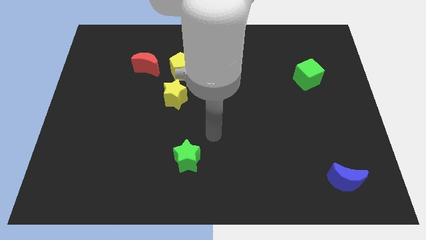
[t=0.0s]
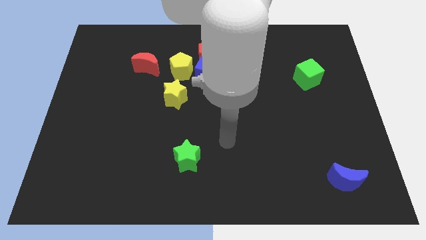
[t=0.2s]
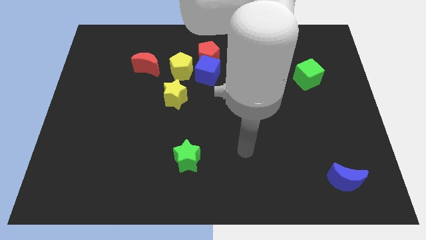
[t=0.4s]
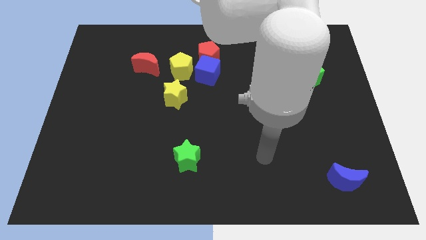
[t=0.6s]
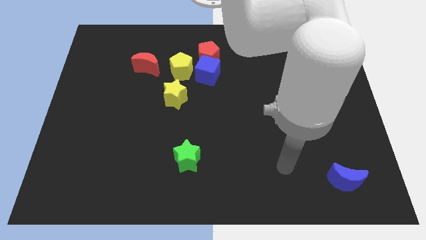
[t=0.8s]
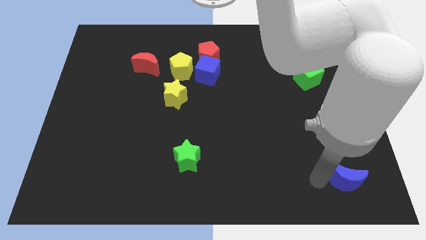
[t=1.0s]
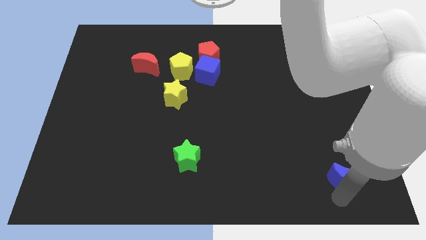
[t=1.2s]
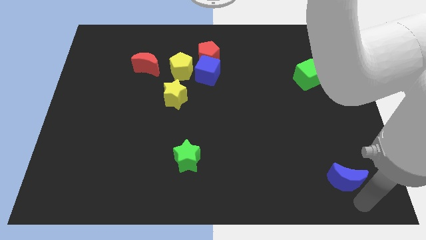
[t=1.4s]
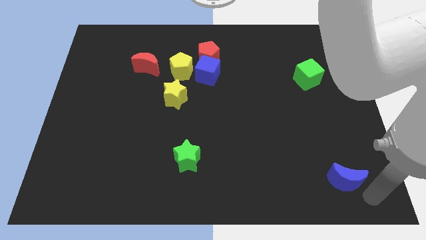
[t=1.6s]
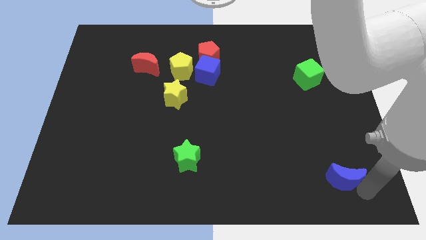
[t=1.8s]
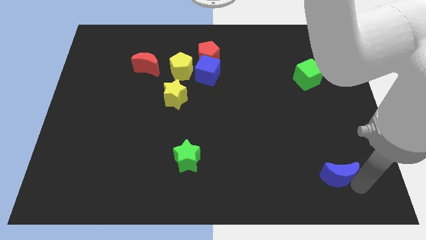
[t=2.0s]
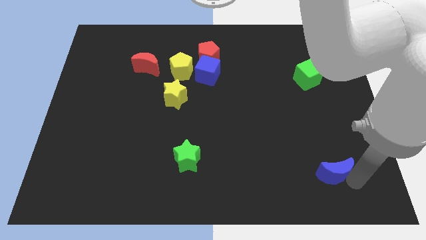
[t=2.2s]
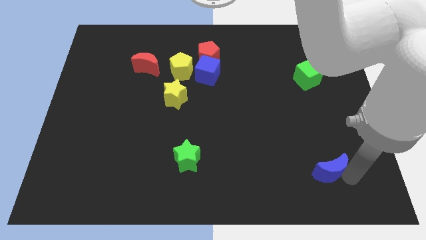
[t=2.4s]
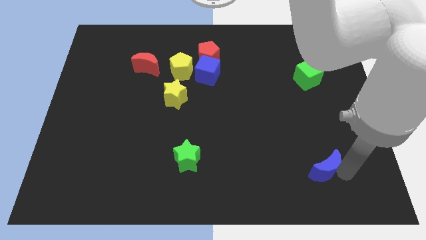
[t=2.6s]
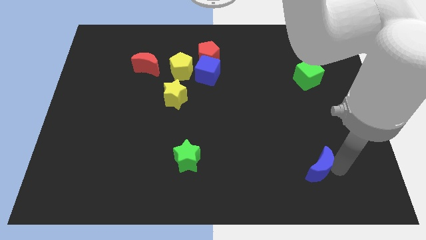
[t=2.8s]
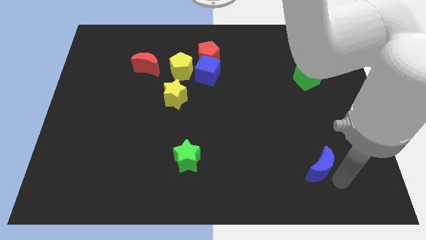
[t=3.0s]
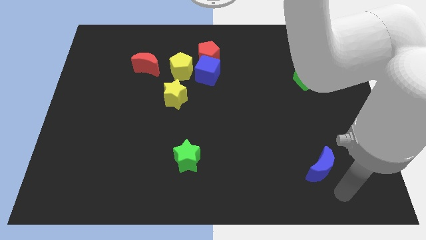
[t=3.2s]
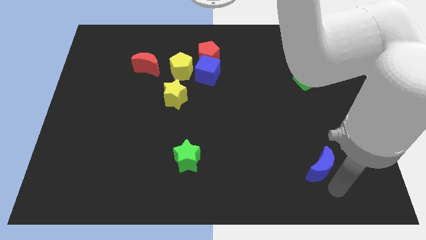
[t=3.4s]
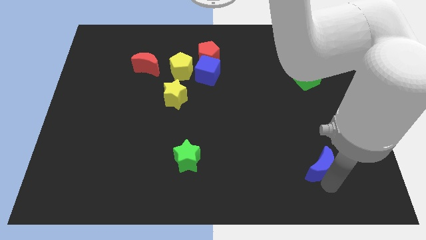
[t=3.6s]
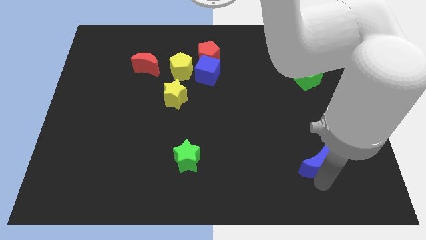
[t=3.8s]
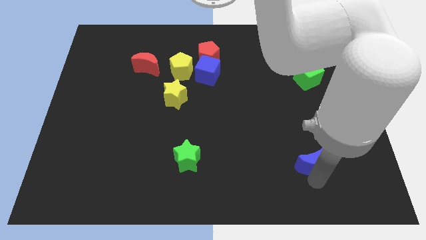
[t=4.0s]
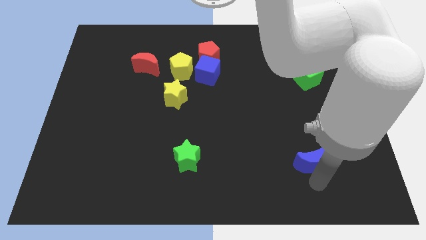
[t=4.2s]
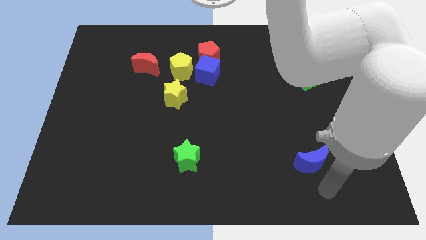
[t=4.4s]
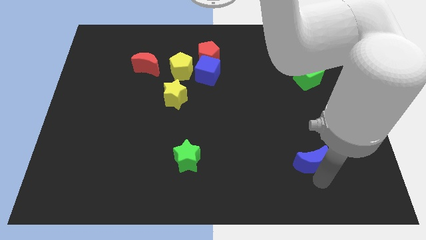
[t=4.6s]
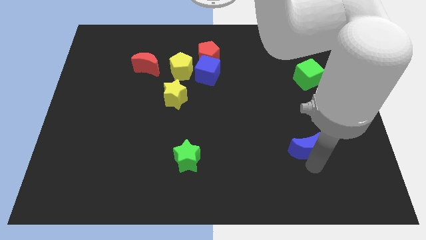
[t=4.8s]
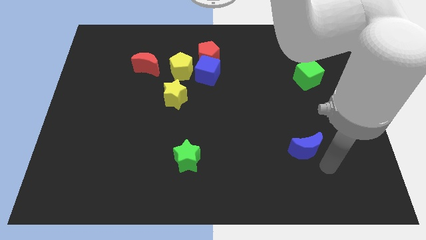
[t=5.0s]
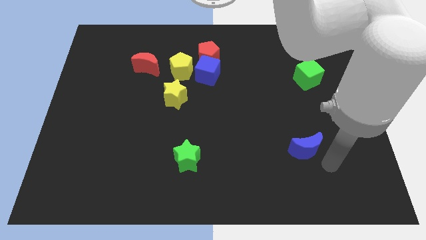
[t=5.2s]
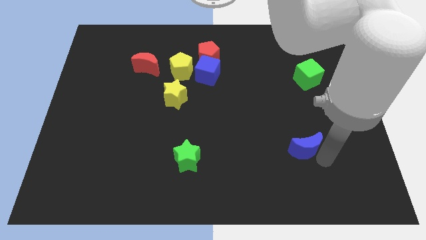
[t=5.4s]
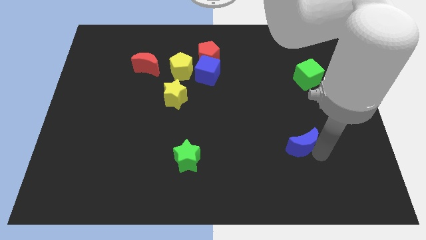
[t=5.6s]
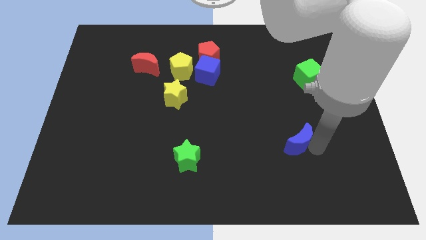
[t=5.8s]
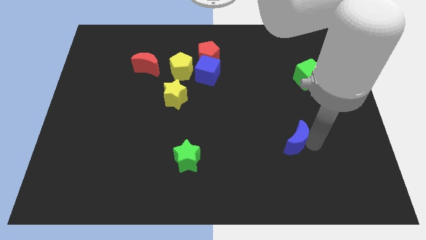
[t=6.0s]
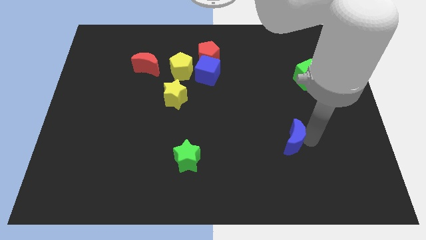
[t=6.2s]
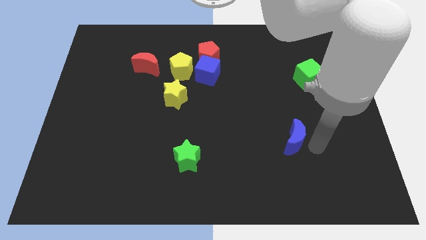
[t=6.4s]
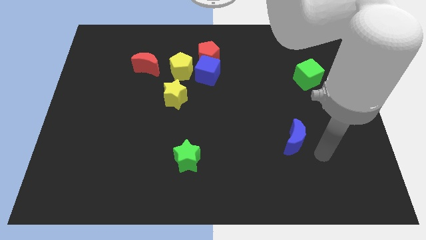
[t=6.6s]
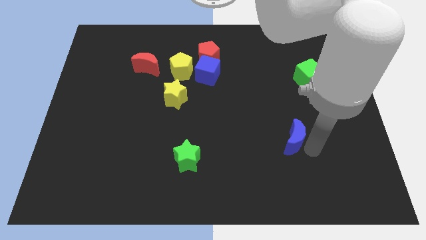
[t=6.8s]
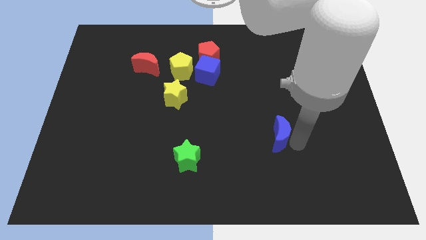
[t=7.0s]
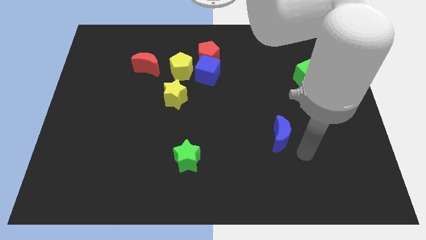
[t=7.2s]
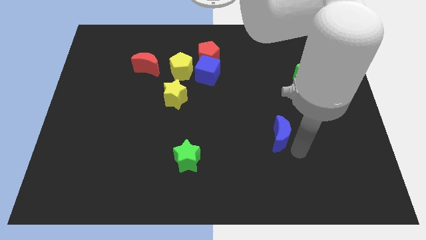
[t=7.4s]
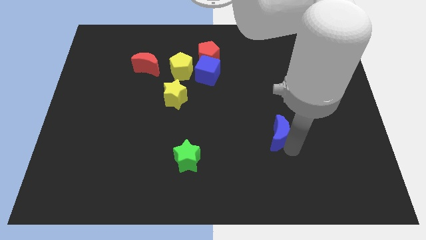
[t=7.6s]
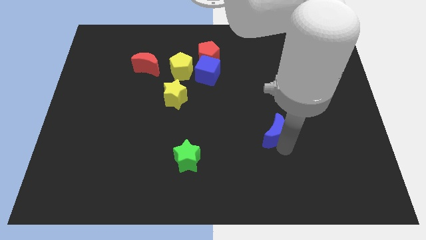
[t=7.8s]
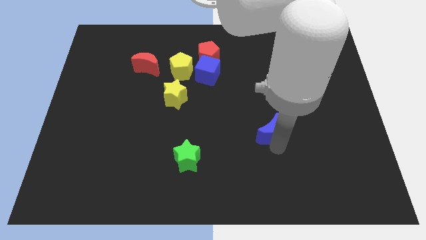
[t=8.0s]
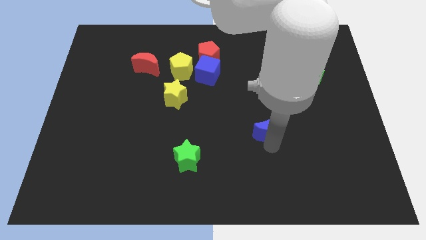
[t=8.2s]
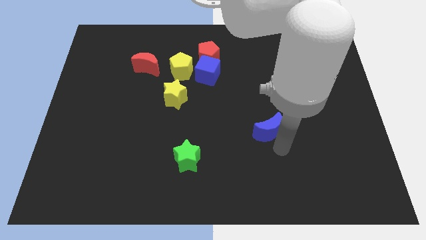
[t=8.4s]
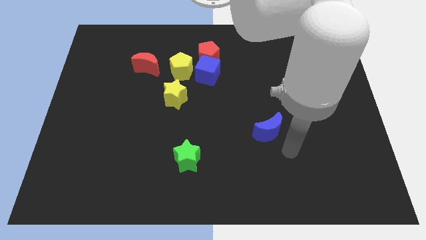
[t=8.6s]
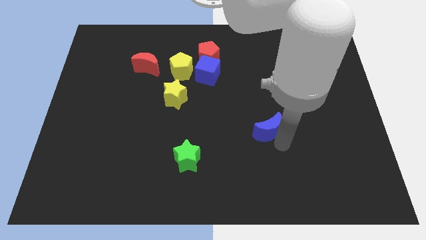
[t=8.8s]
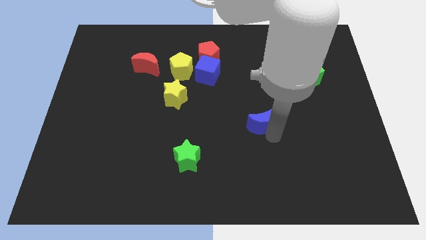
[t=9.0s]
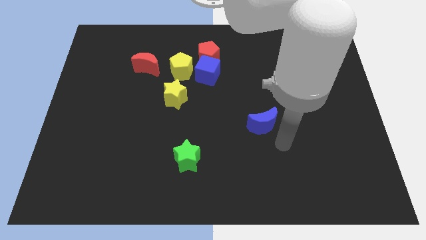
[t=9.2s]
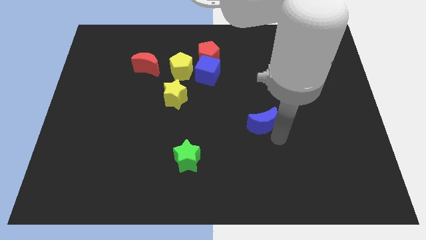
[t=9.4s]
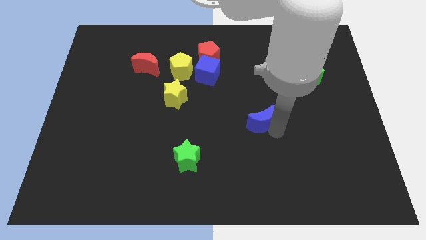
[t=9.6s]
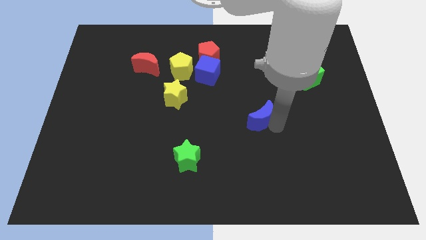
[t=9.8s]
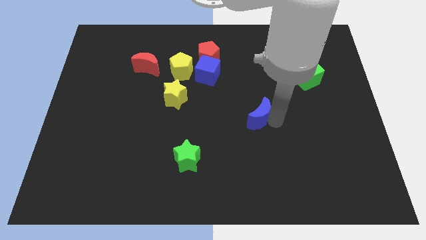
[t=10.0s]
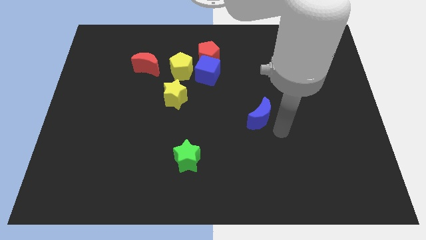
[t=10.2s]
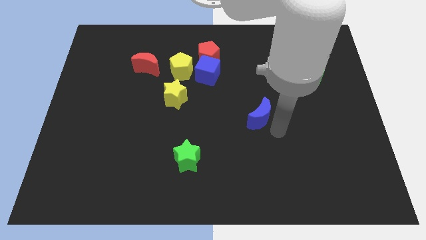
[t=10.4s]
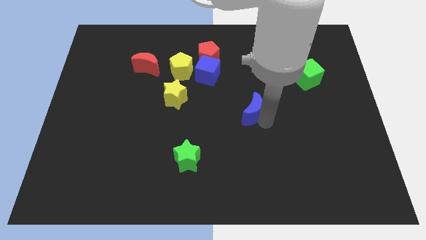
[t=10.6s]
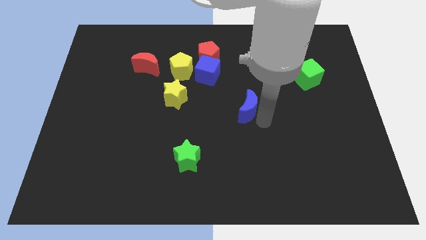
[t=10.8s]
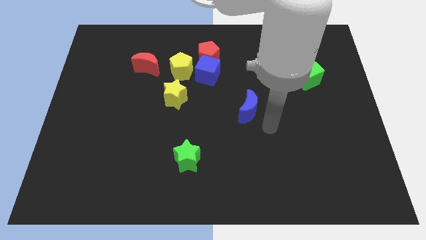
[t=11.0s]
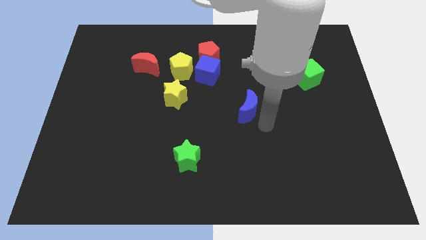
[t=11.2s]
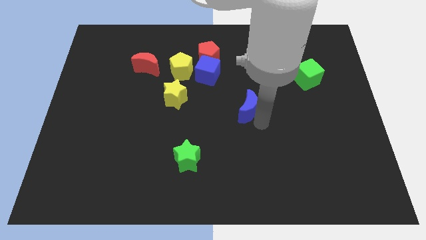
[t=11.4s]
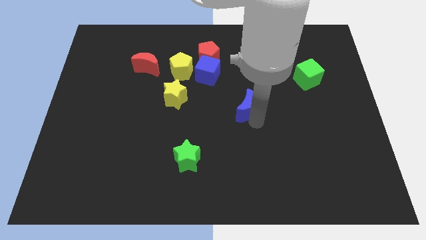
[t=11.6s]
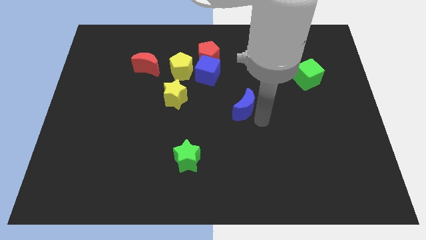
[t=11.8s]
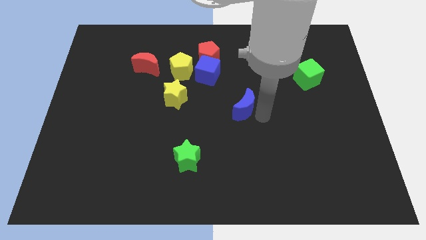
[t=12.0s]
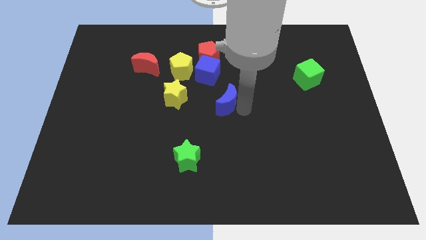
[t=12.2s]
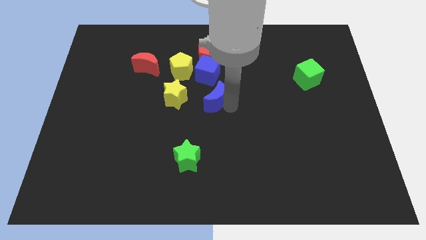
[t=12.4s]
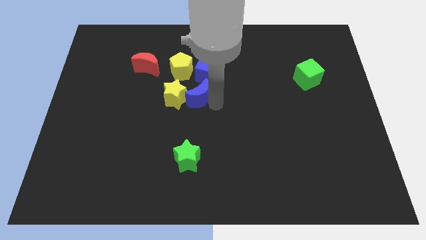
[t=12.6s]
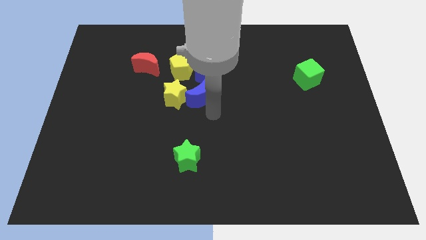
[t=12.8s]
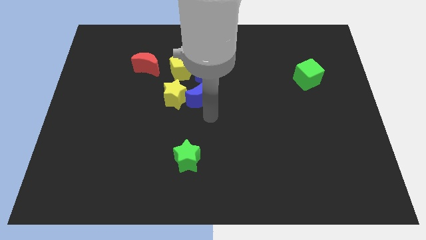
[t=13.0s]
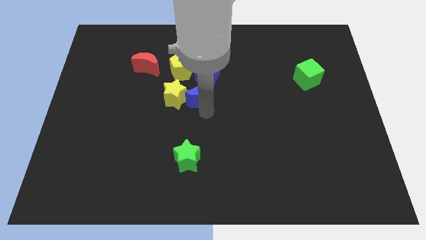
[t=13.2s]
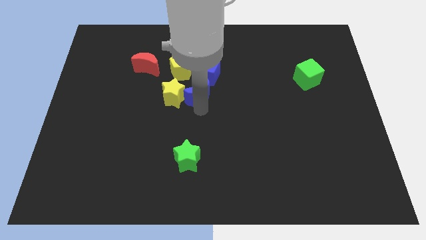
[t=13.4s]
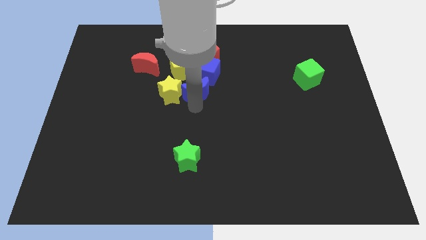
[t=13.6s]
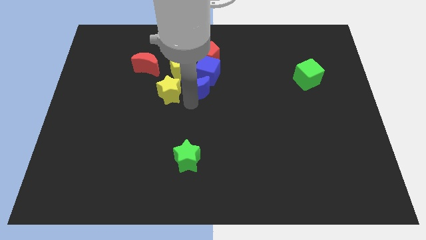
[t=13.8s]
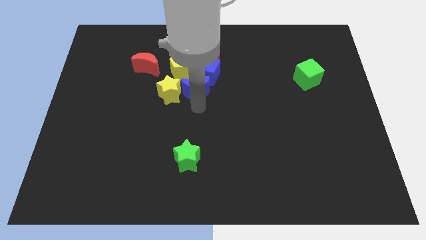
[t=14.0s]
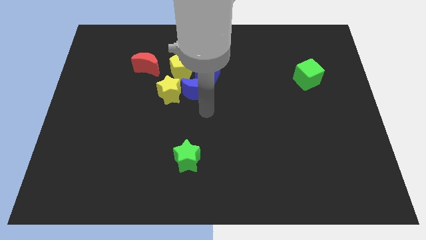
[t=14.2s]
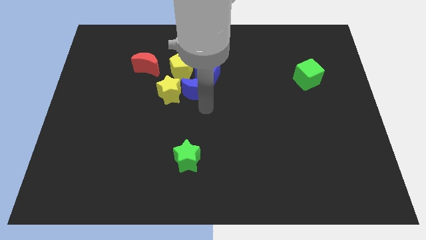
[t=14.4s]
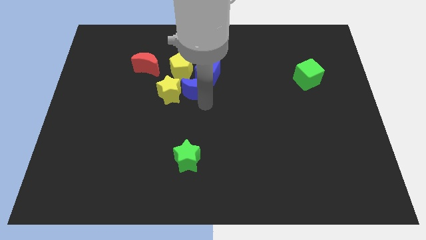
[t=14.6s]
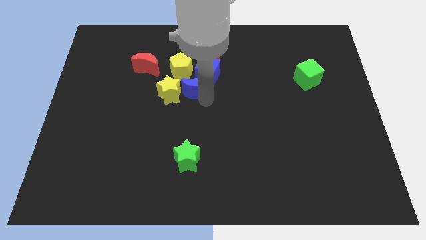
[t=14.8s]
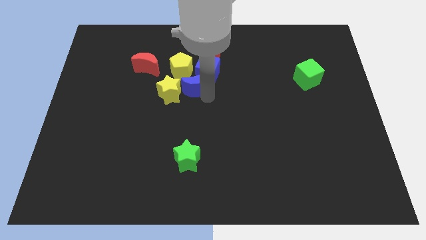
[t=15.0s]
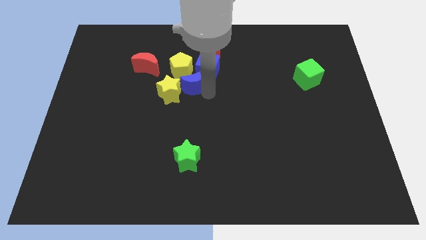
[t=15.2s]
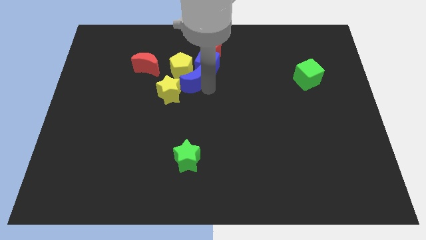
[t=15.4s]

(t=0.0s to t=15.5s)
slide the blue moon towards the yellow pentagon
